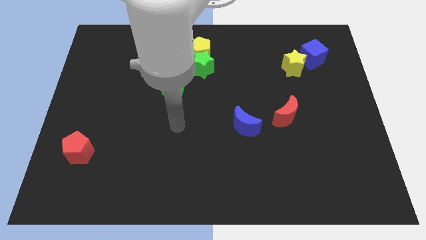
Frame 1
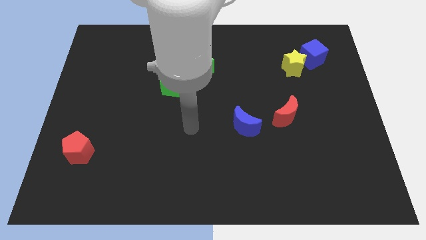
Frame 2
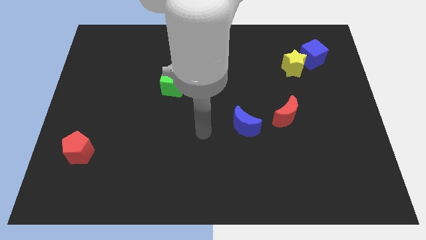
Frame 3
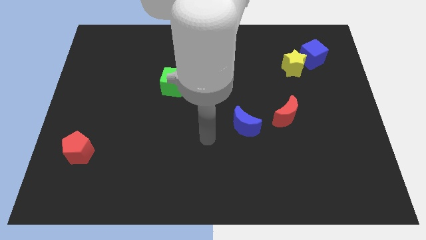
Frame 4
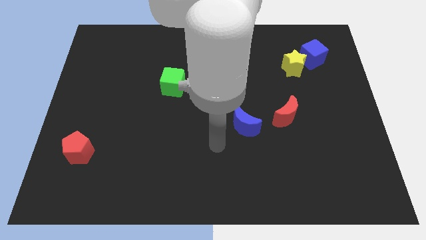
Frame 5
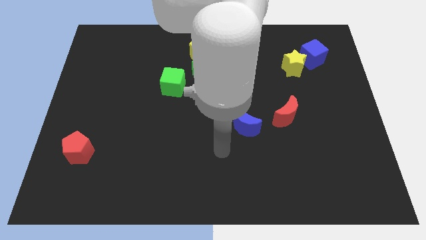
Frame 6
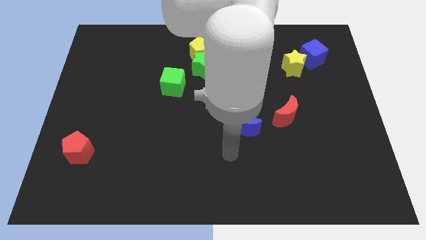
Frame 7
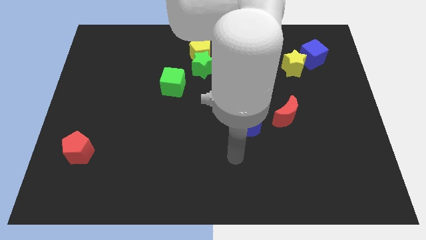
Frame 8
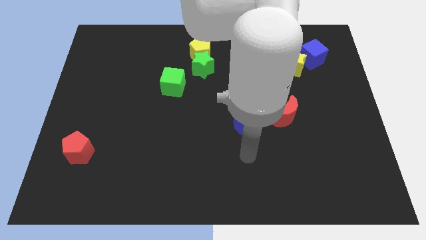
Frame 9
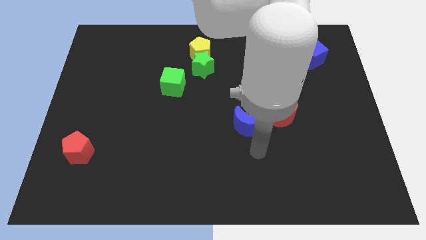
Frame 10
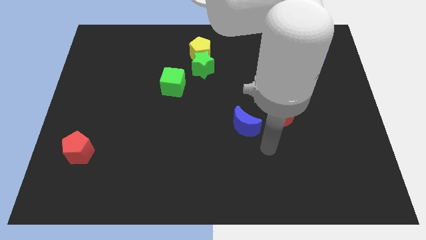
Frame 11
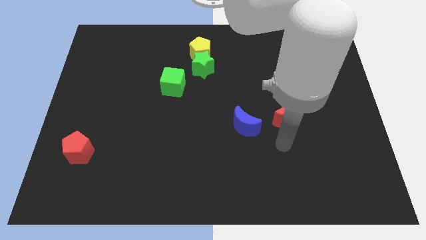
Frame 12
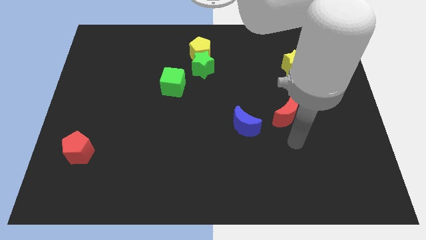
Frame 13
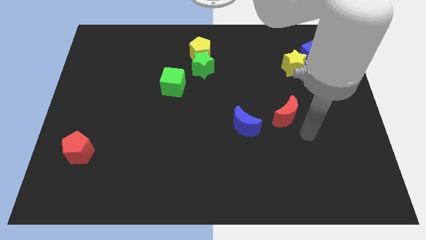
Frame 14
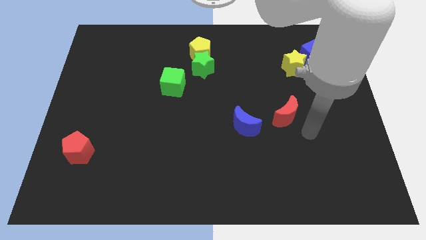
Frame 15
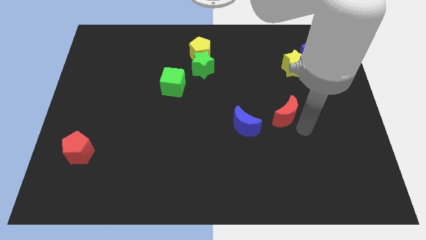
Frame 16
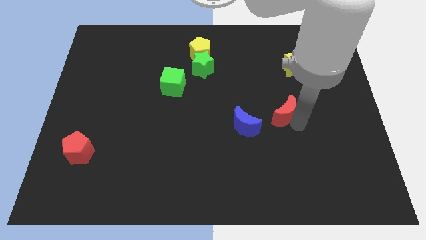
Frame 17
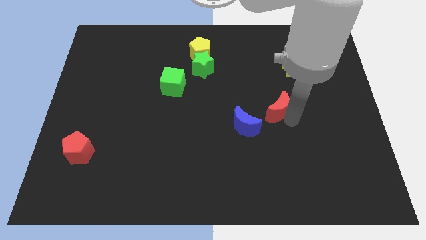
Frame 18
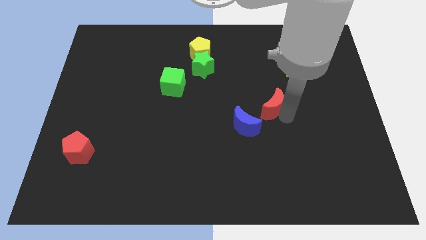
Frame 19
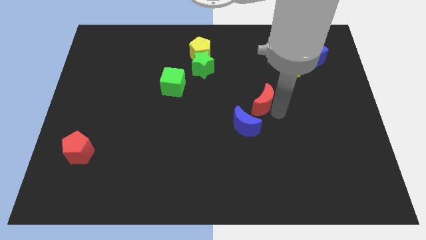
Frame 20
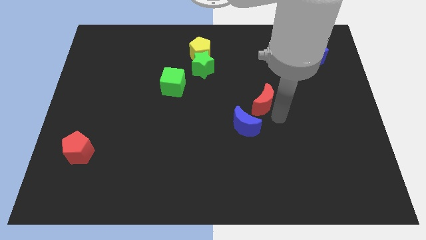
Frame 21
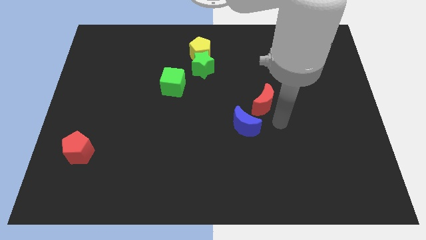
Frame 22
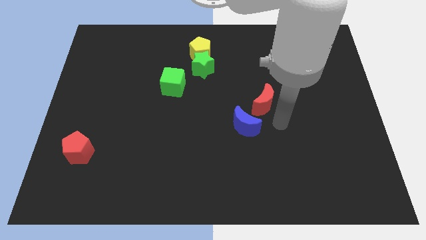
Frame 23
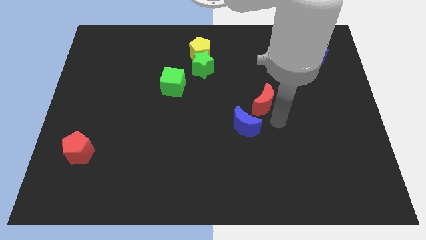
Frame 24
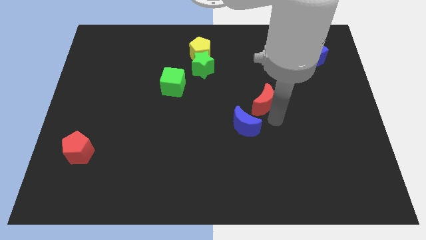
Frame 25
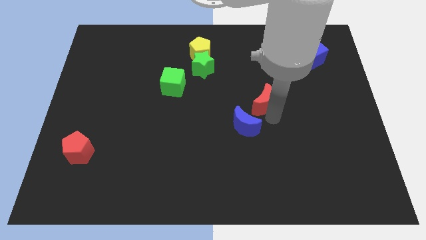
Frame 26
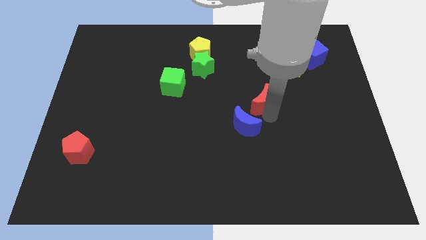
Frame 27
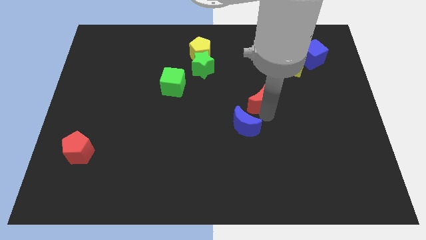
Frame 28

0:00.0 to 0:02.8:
move the red moon up and to the left diagonally a bit

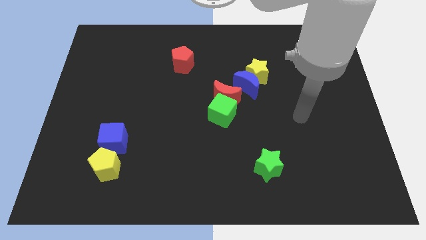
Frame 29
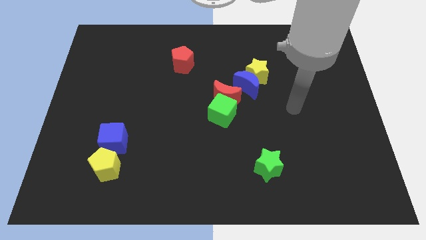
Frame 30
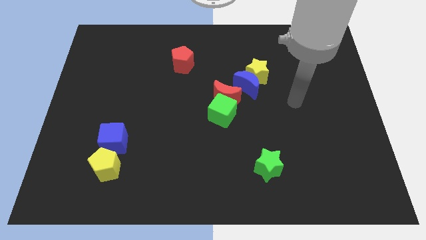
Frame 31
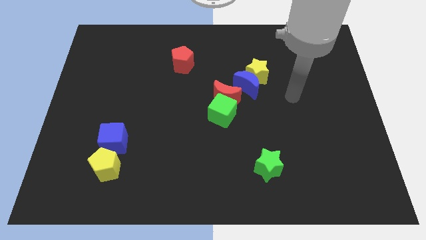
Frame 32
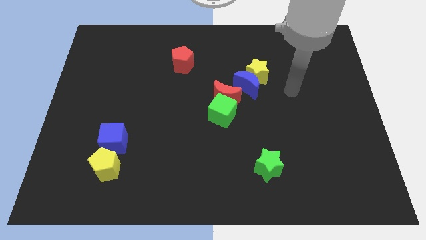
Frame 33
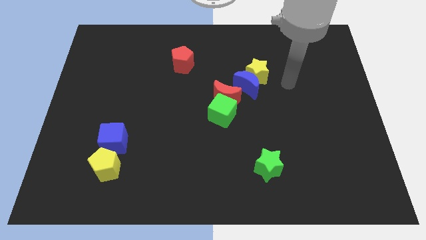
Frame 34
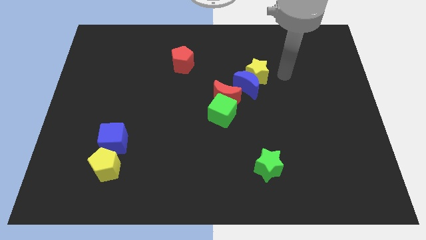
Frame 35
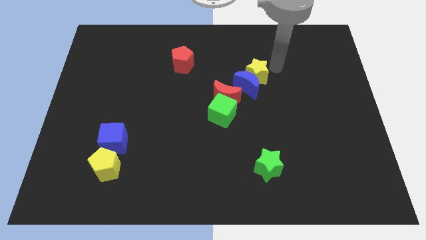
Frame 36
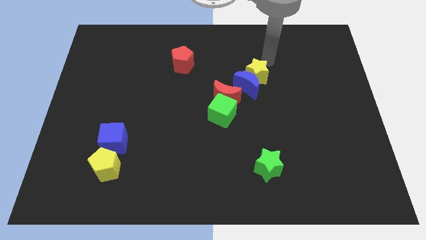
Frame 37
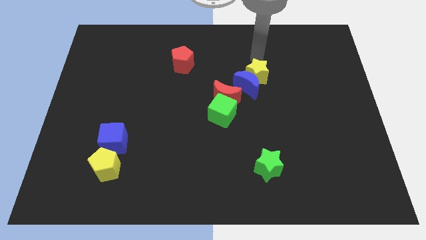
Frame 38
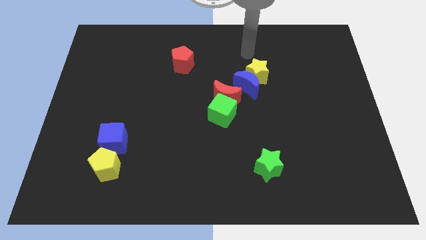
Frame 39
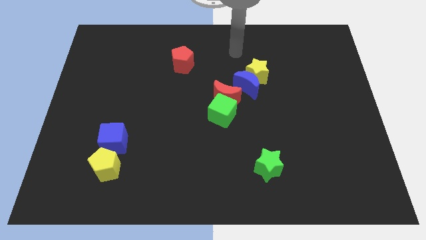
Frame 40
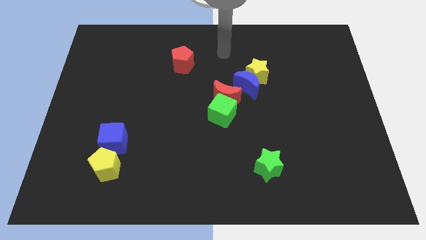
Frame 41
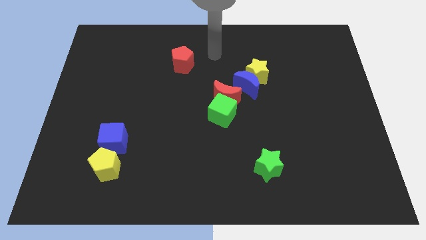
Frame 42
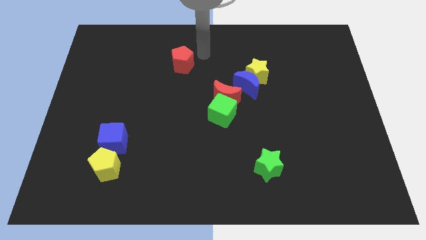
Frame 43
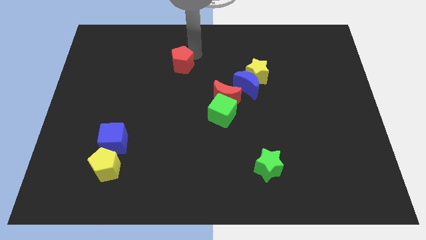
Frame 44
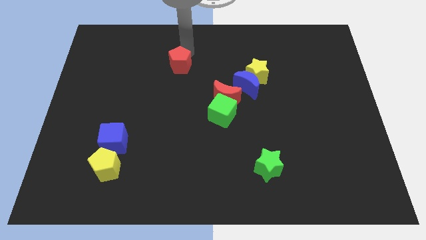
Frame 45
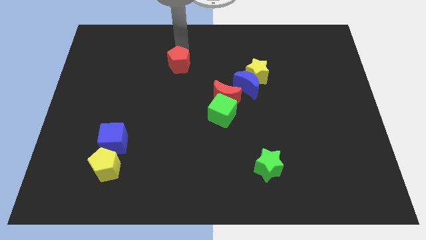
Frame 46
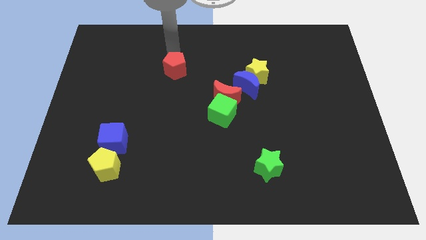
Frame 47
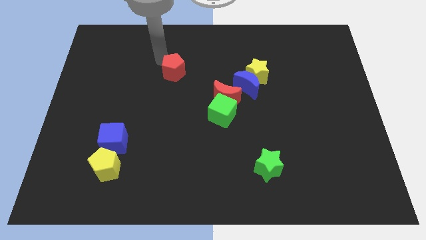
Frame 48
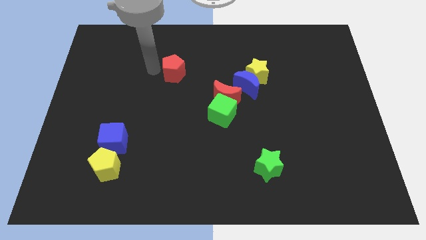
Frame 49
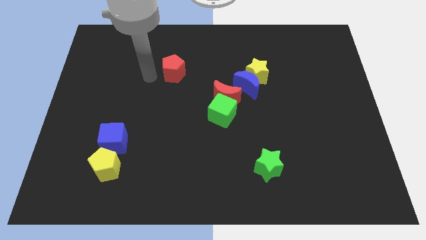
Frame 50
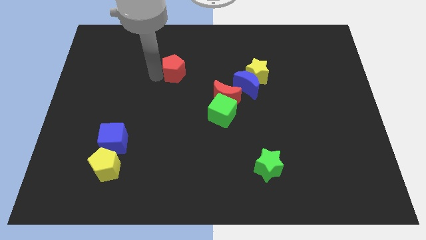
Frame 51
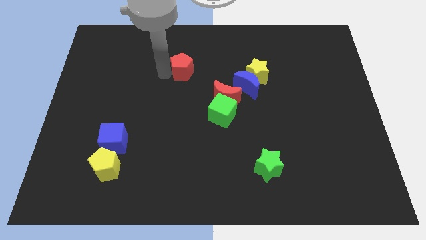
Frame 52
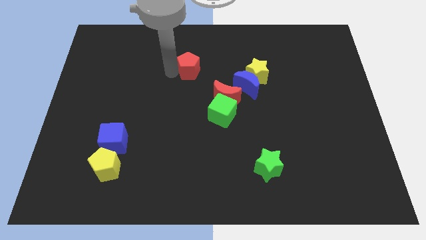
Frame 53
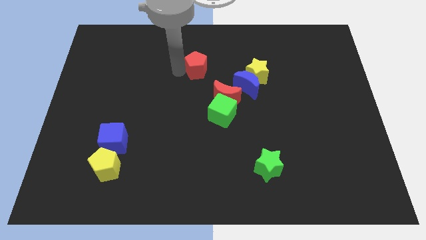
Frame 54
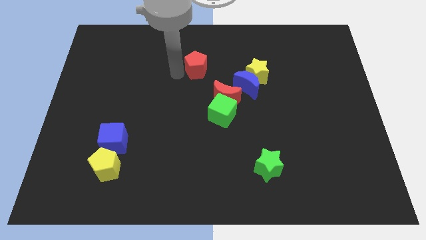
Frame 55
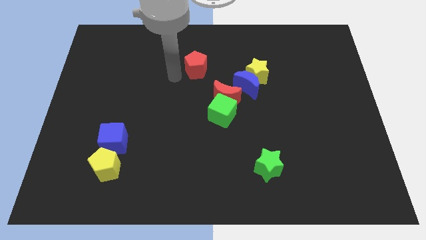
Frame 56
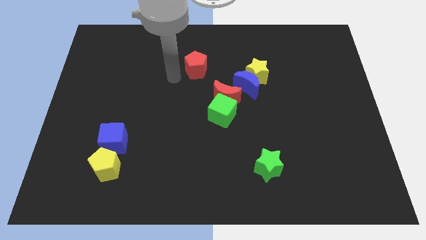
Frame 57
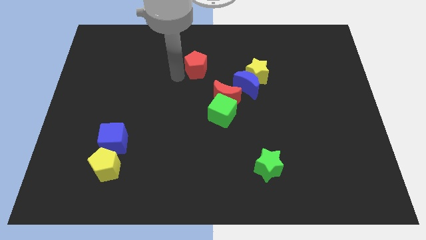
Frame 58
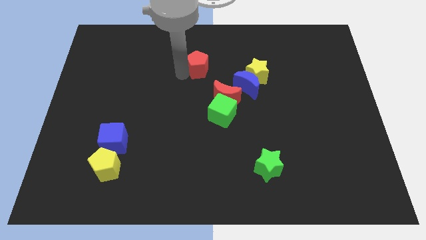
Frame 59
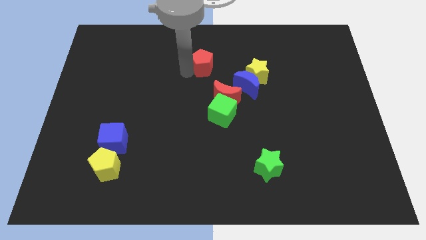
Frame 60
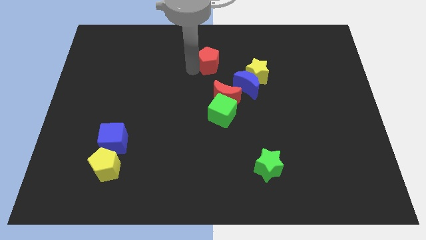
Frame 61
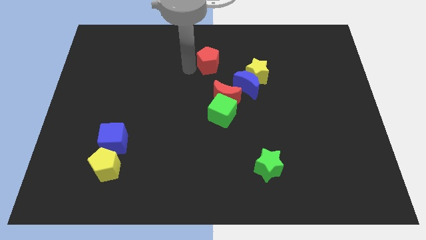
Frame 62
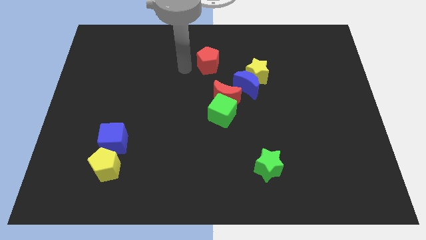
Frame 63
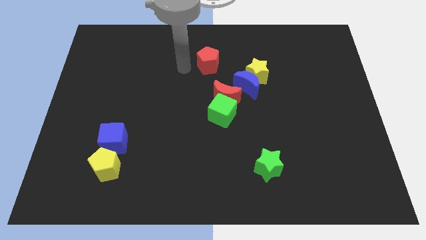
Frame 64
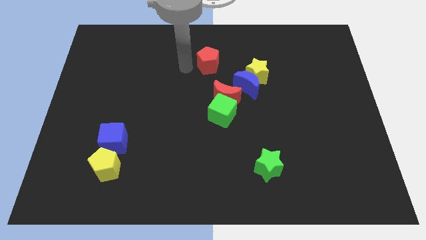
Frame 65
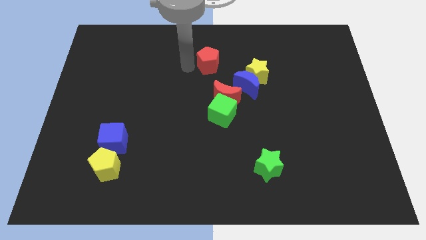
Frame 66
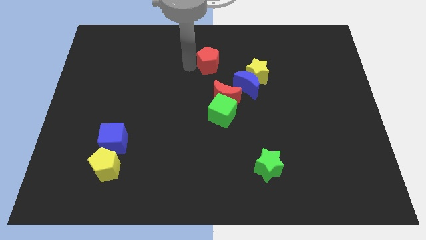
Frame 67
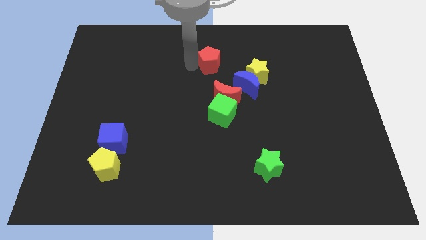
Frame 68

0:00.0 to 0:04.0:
slightly push the red pentagon to the right

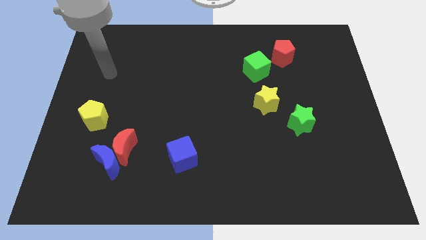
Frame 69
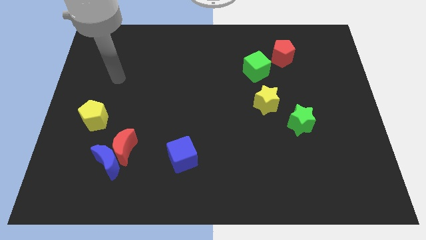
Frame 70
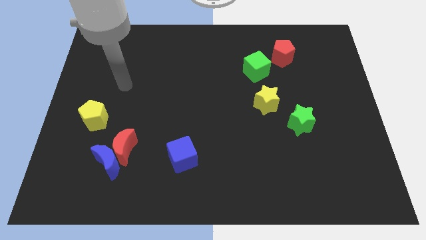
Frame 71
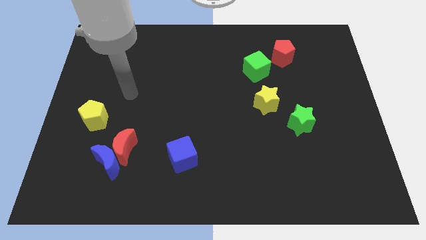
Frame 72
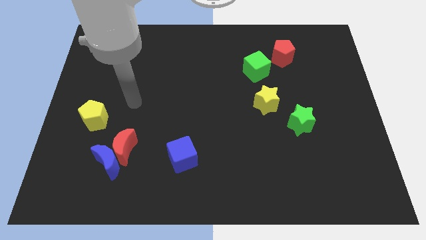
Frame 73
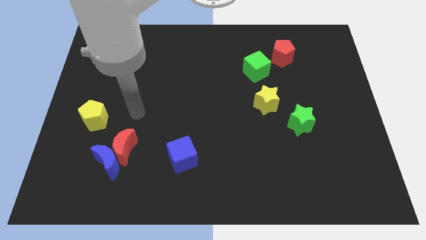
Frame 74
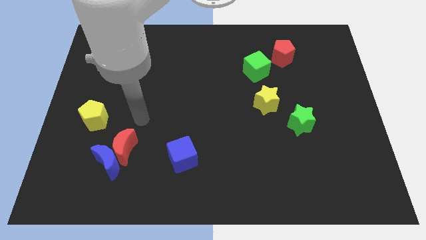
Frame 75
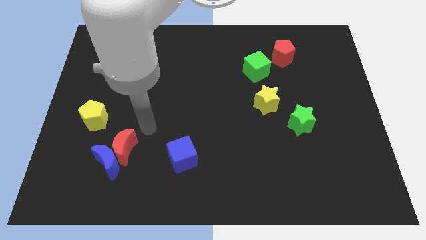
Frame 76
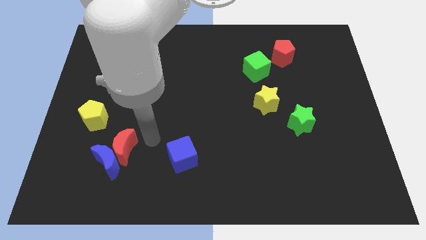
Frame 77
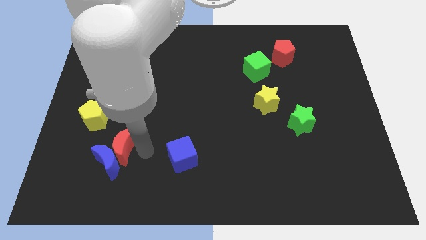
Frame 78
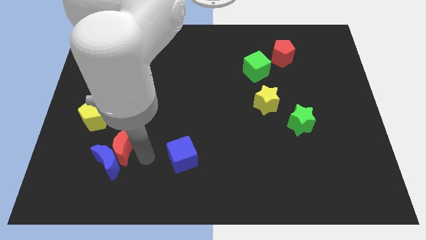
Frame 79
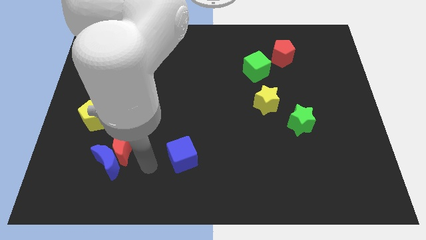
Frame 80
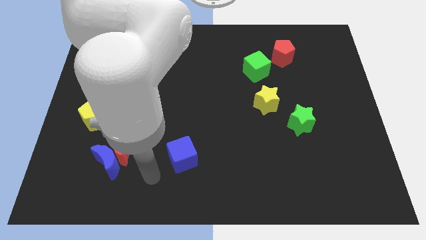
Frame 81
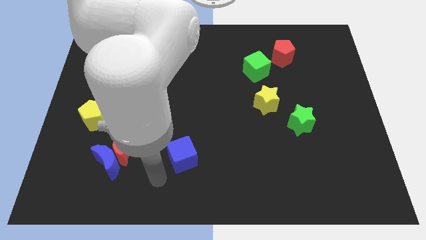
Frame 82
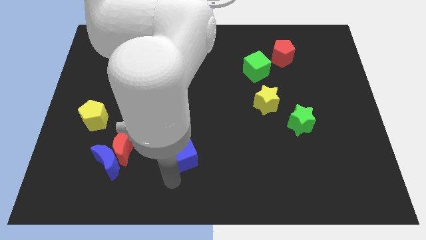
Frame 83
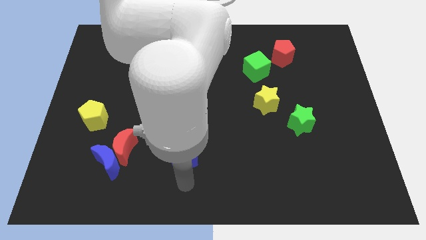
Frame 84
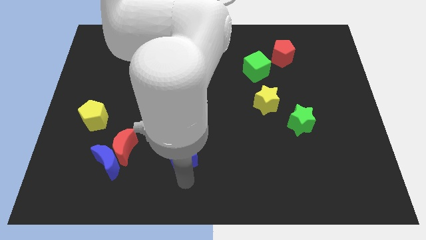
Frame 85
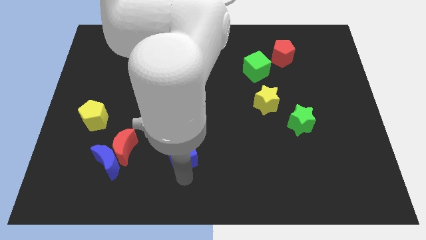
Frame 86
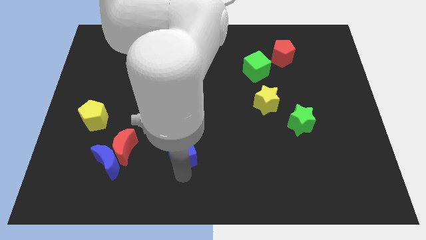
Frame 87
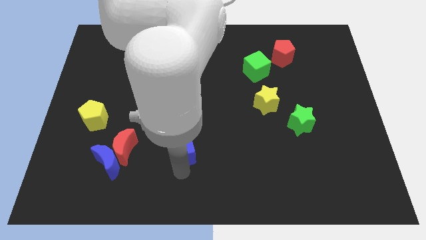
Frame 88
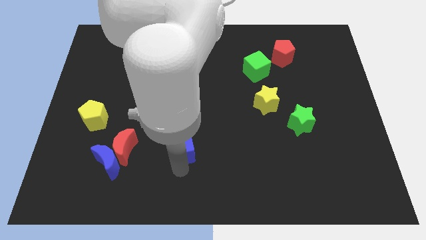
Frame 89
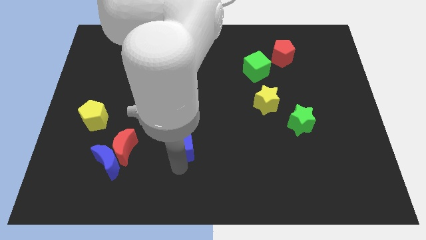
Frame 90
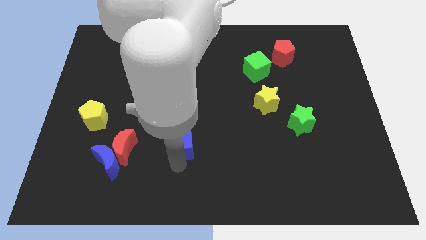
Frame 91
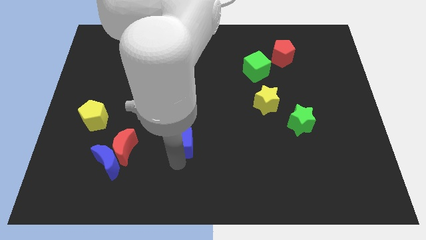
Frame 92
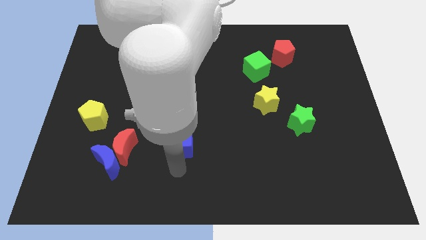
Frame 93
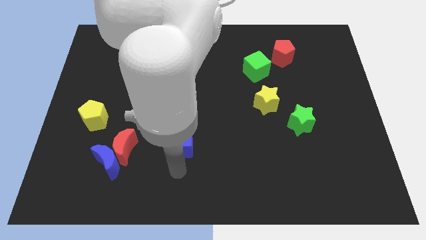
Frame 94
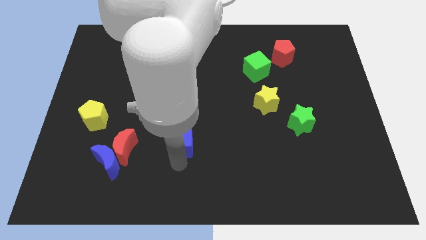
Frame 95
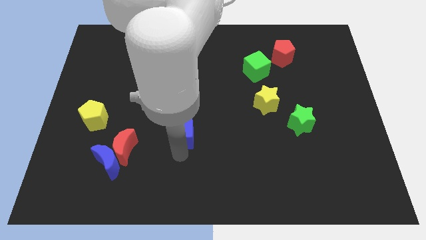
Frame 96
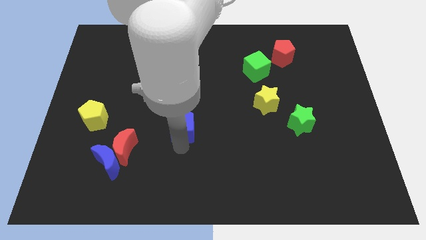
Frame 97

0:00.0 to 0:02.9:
slightly slide the blue cube upwards
